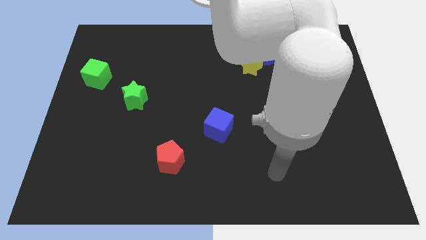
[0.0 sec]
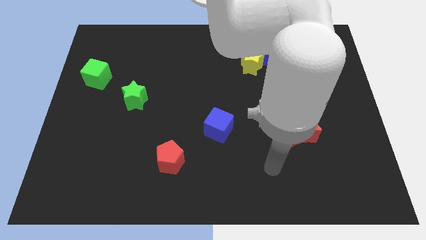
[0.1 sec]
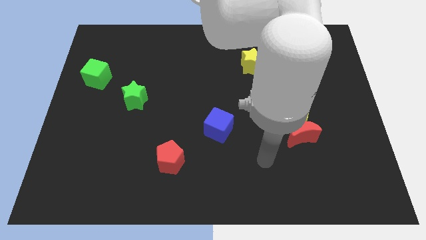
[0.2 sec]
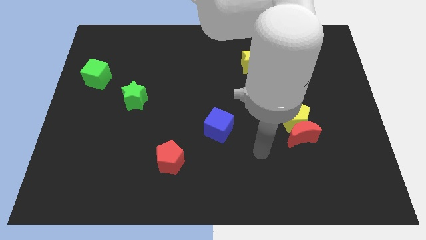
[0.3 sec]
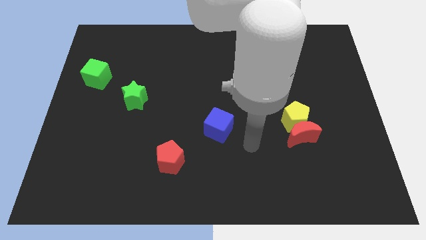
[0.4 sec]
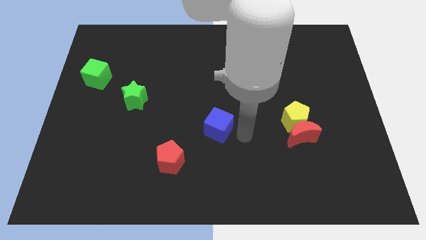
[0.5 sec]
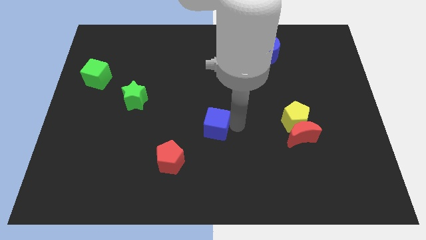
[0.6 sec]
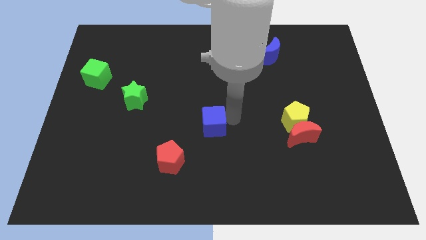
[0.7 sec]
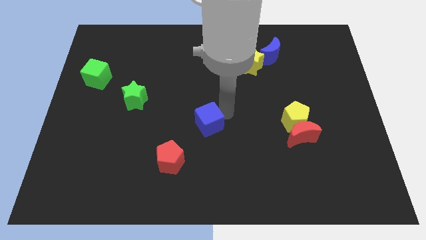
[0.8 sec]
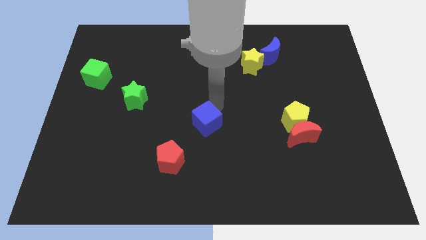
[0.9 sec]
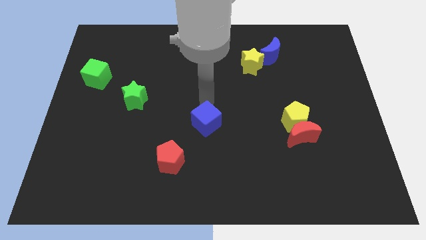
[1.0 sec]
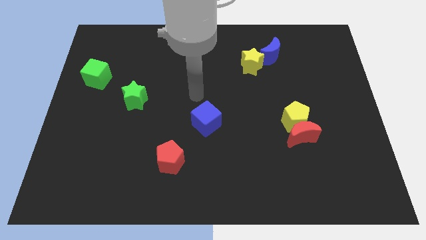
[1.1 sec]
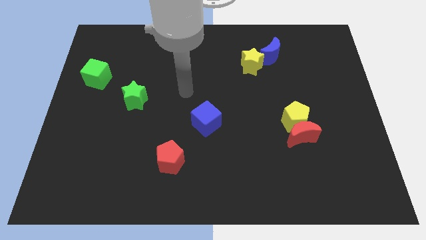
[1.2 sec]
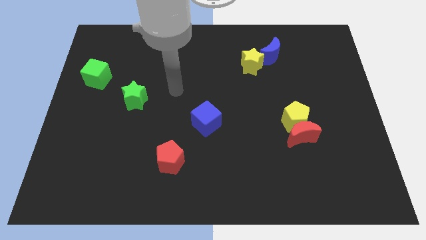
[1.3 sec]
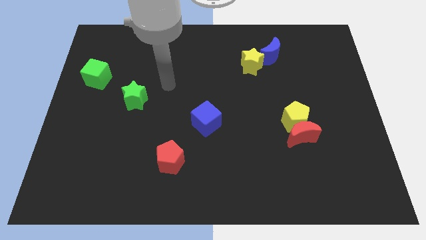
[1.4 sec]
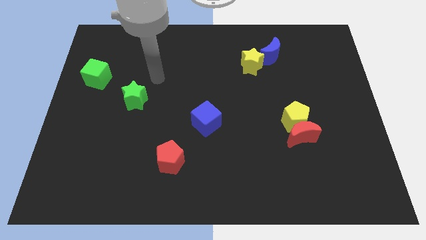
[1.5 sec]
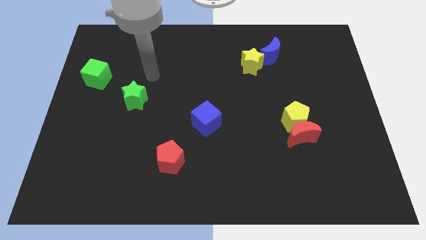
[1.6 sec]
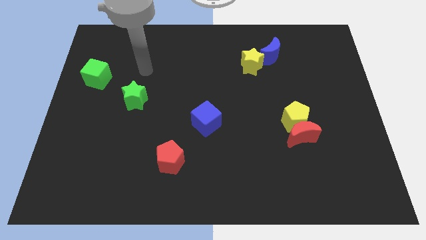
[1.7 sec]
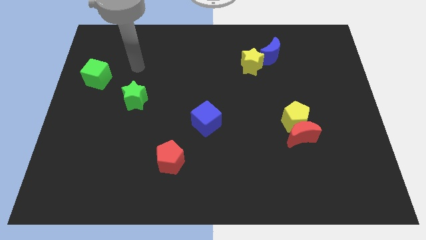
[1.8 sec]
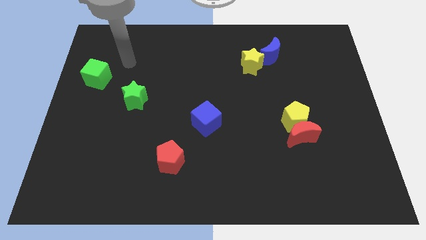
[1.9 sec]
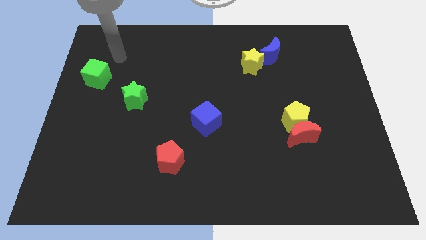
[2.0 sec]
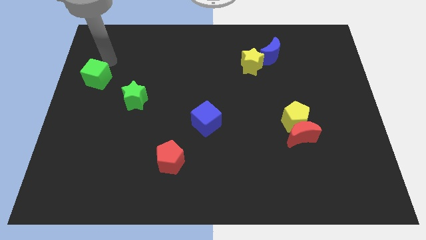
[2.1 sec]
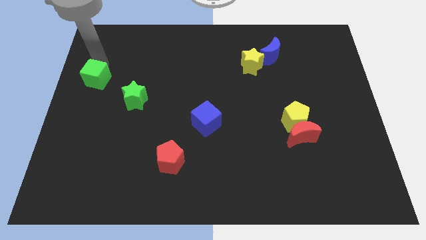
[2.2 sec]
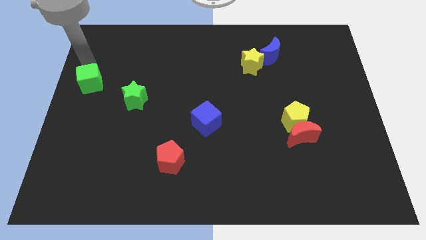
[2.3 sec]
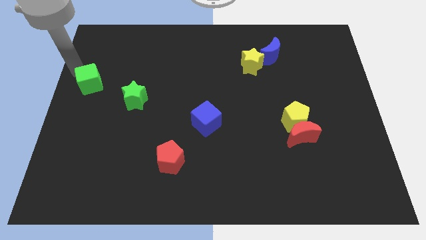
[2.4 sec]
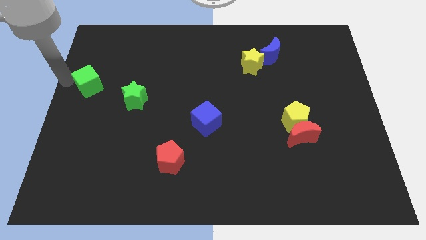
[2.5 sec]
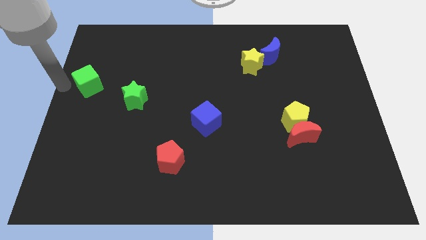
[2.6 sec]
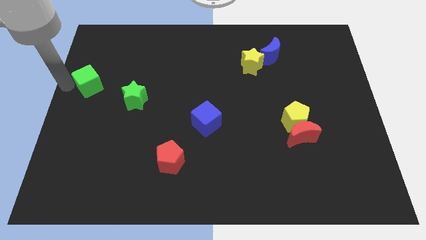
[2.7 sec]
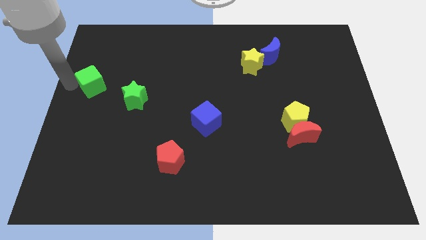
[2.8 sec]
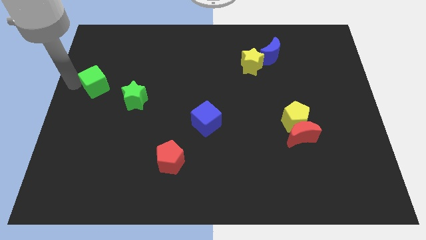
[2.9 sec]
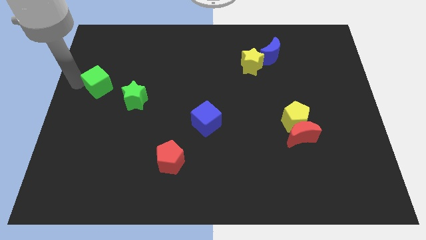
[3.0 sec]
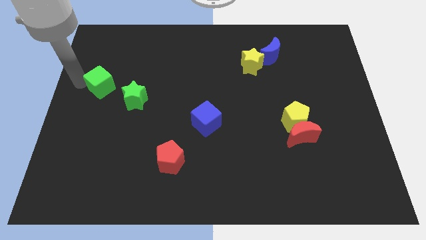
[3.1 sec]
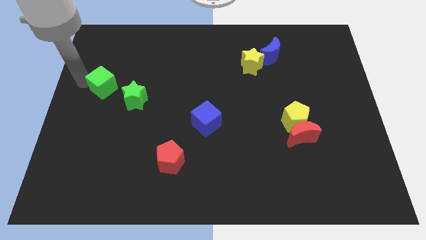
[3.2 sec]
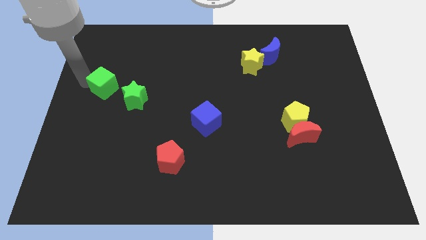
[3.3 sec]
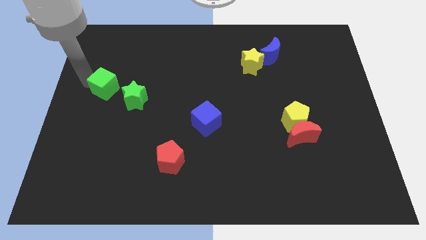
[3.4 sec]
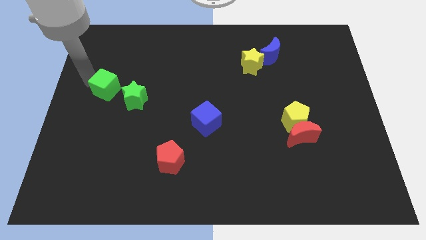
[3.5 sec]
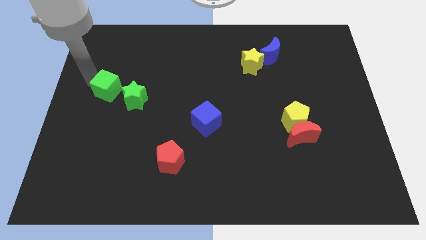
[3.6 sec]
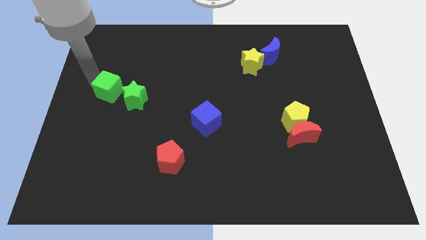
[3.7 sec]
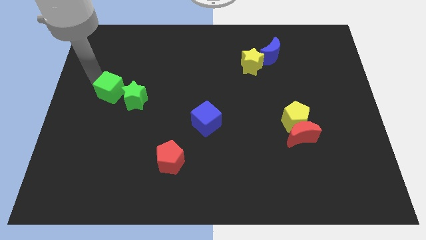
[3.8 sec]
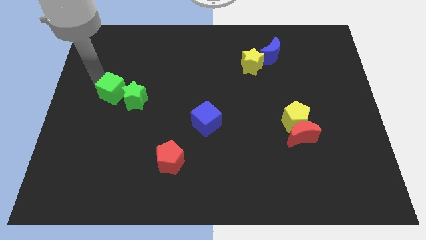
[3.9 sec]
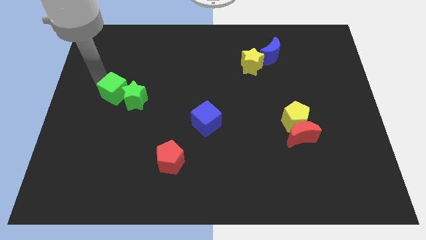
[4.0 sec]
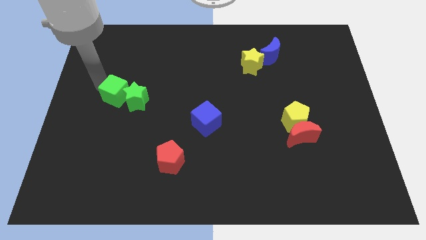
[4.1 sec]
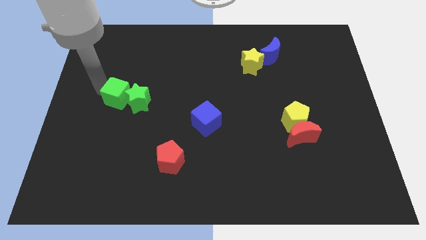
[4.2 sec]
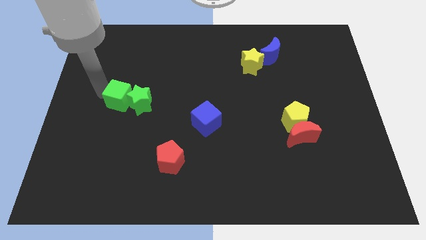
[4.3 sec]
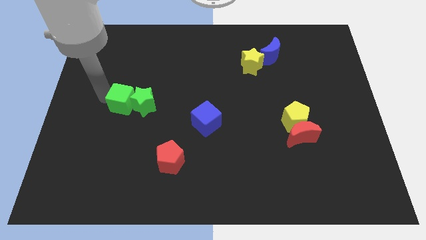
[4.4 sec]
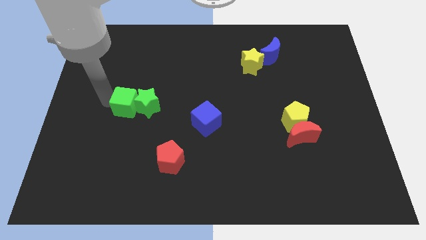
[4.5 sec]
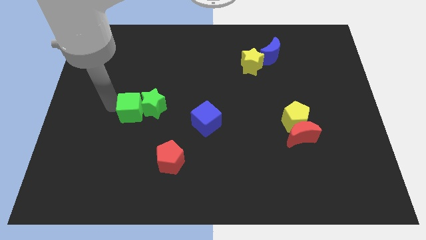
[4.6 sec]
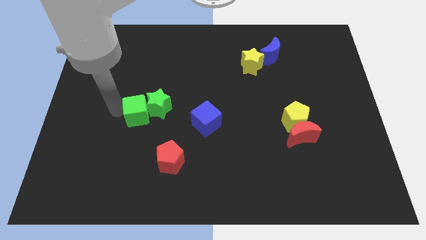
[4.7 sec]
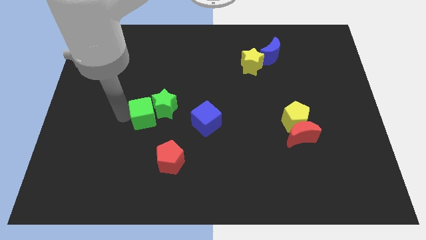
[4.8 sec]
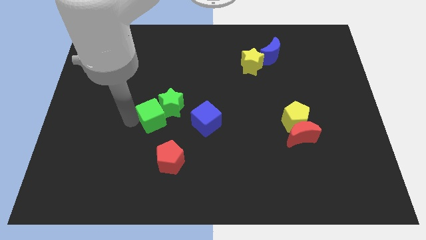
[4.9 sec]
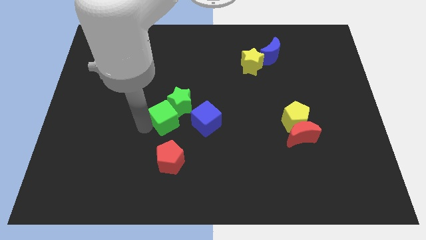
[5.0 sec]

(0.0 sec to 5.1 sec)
push the green cube above the red pentagon

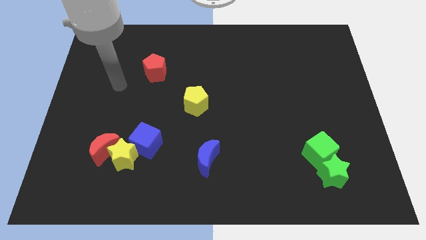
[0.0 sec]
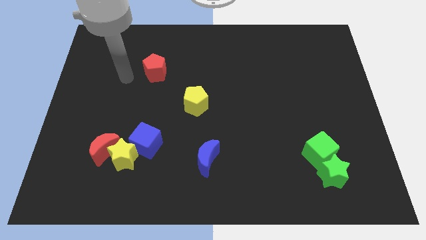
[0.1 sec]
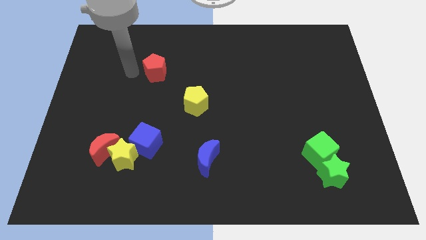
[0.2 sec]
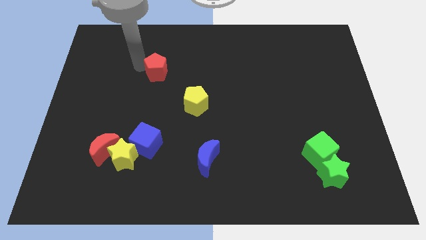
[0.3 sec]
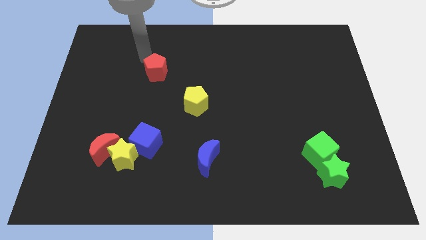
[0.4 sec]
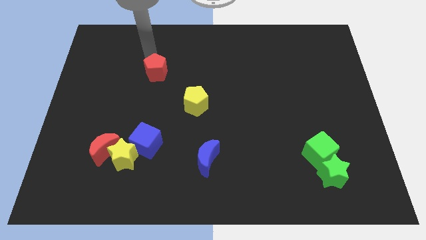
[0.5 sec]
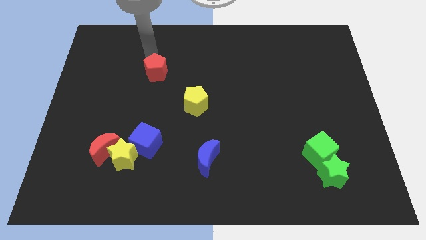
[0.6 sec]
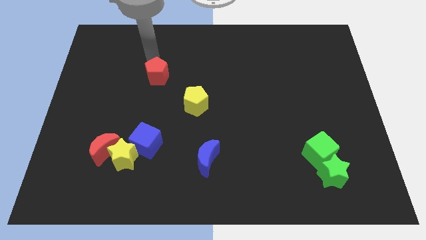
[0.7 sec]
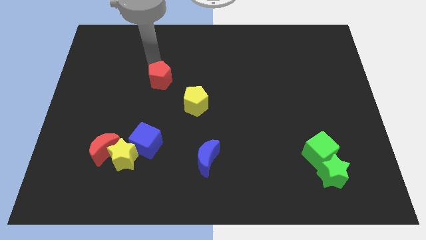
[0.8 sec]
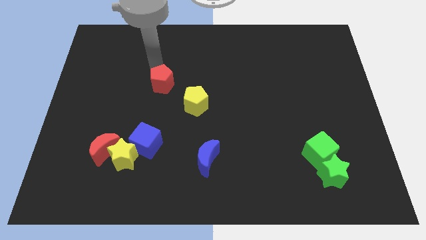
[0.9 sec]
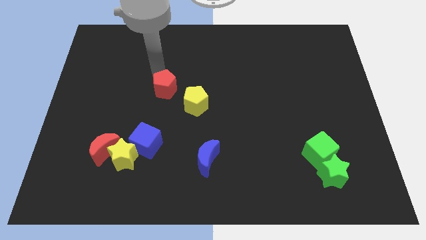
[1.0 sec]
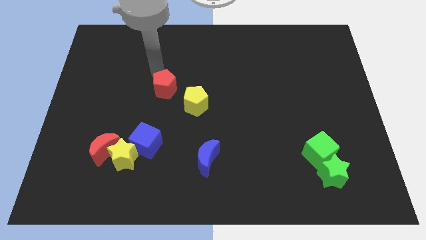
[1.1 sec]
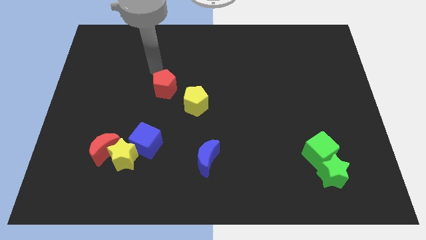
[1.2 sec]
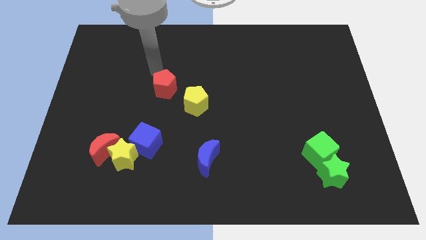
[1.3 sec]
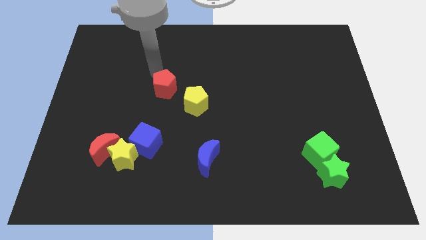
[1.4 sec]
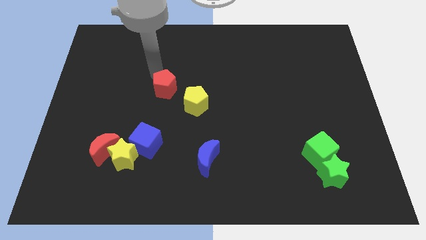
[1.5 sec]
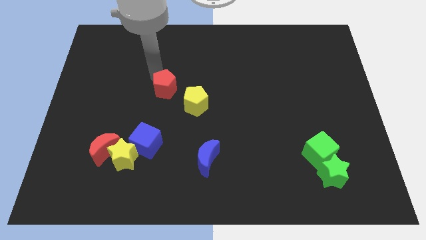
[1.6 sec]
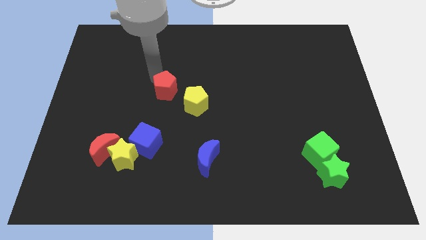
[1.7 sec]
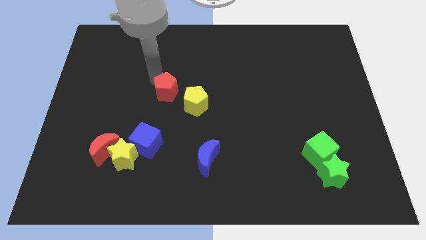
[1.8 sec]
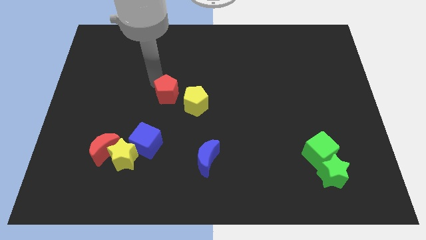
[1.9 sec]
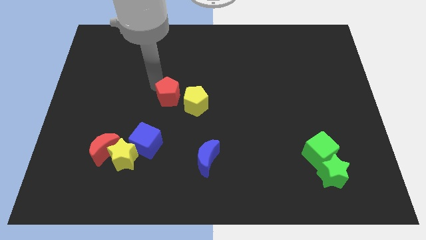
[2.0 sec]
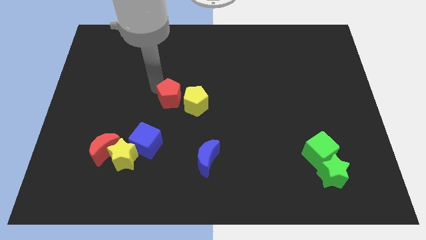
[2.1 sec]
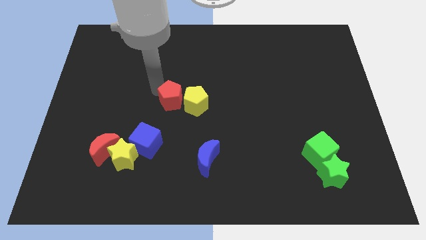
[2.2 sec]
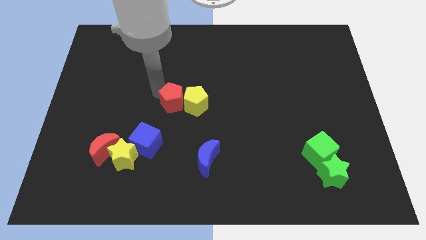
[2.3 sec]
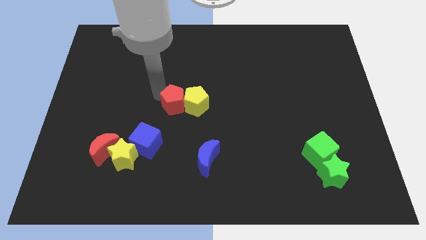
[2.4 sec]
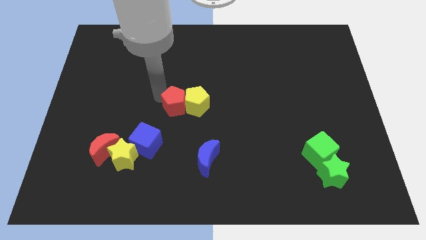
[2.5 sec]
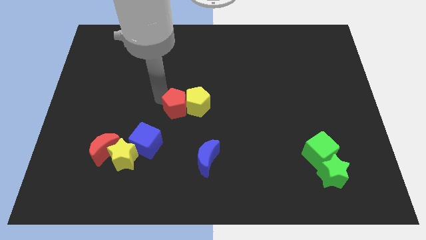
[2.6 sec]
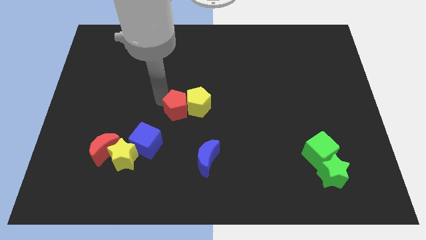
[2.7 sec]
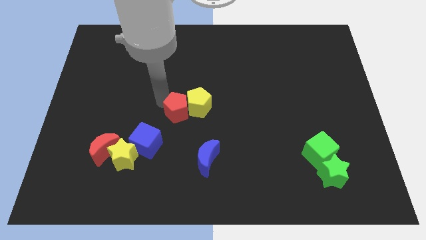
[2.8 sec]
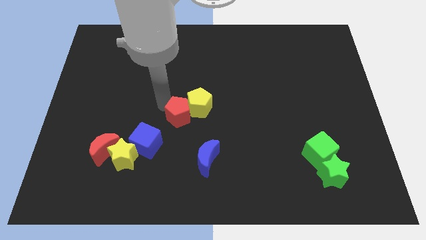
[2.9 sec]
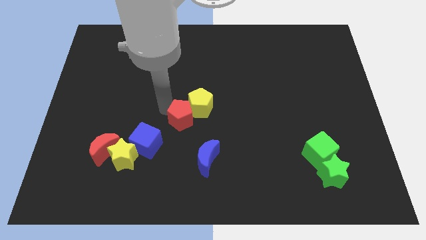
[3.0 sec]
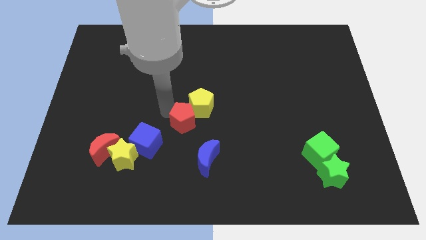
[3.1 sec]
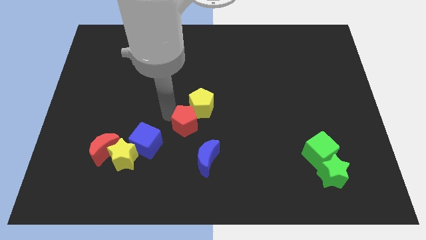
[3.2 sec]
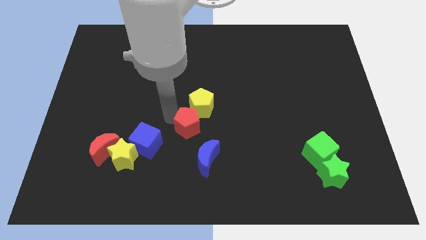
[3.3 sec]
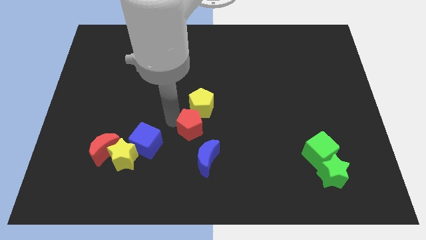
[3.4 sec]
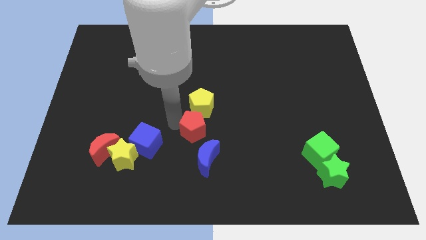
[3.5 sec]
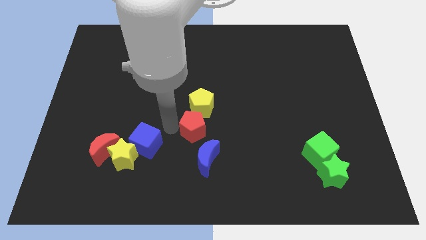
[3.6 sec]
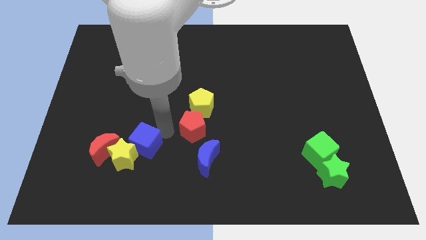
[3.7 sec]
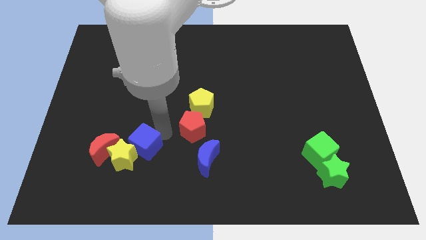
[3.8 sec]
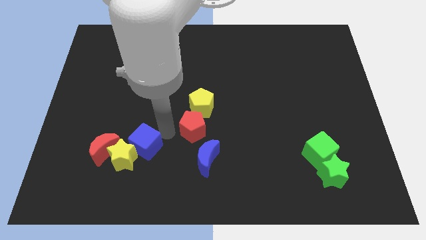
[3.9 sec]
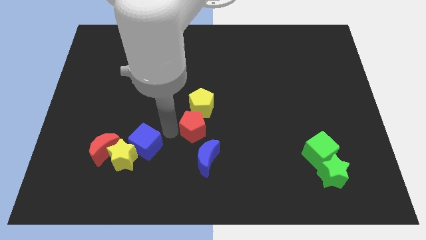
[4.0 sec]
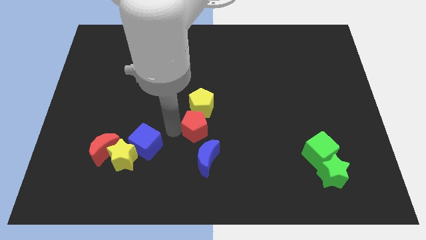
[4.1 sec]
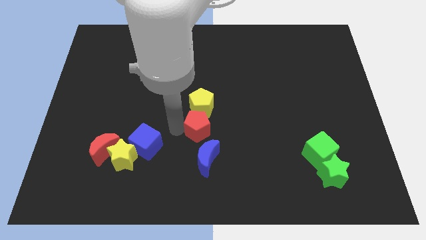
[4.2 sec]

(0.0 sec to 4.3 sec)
slide the red pentagon to the bottom right side of the yellow pentagon
